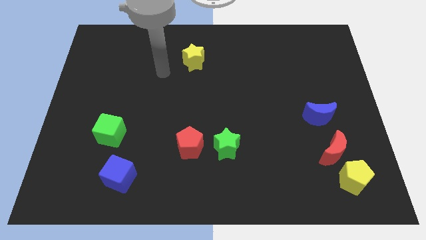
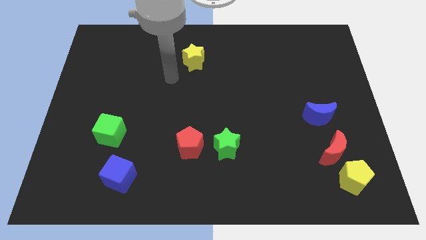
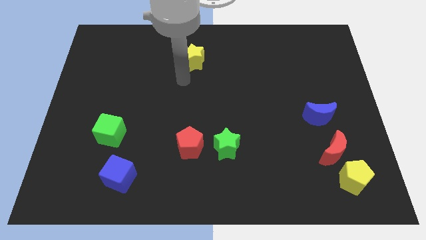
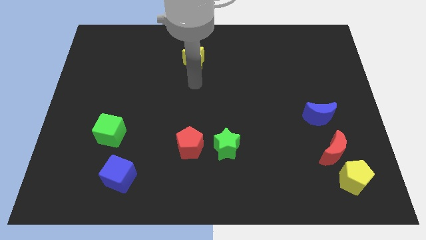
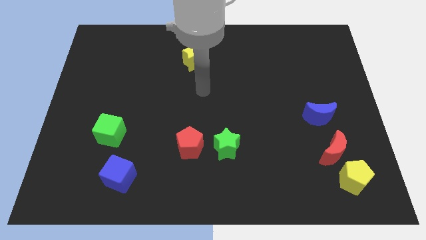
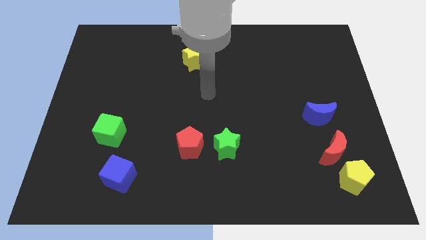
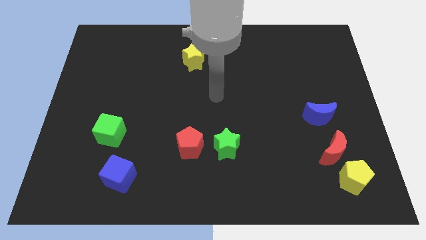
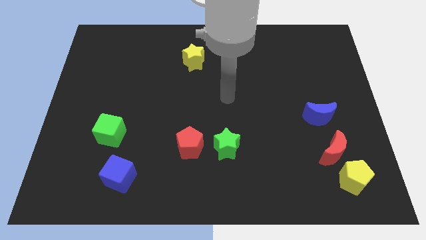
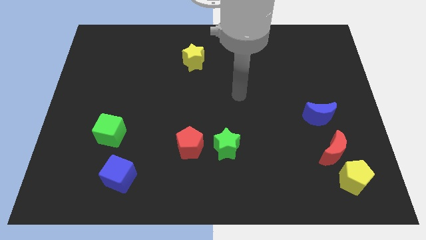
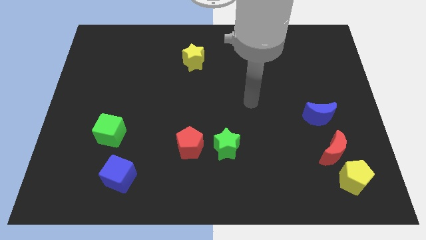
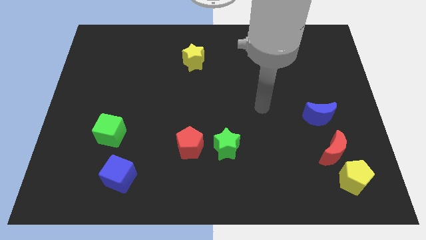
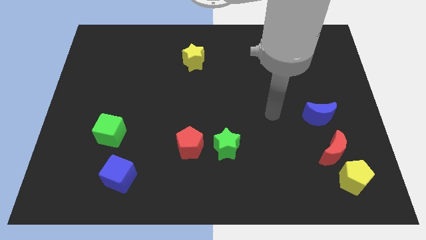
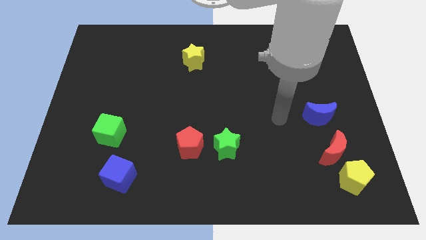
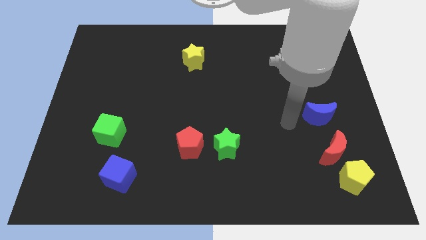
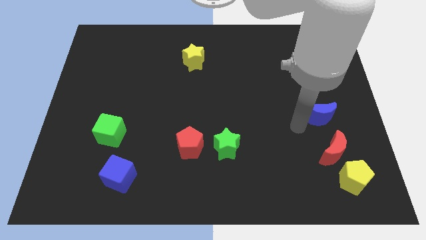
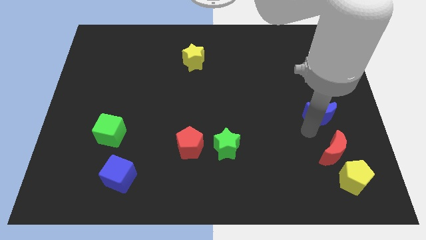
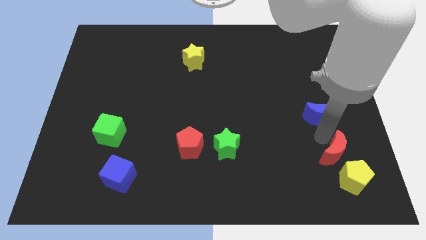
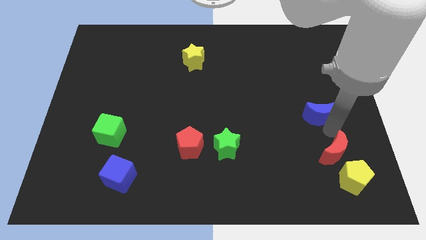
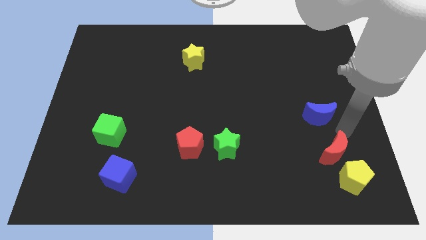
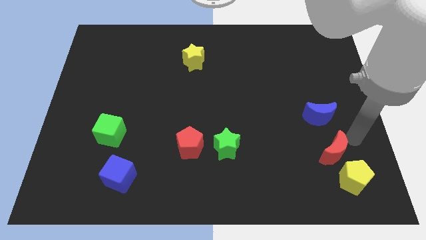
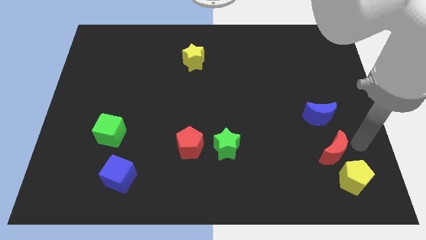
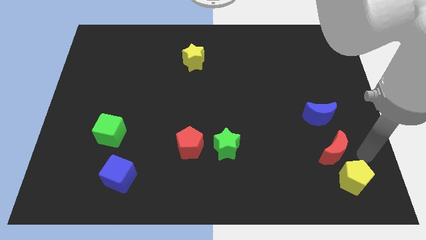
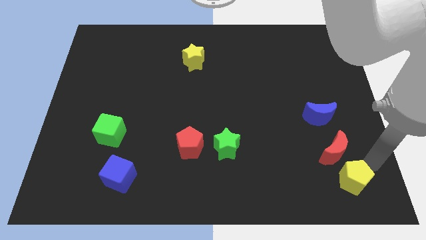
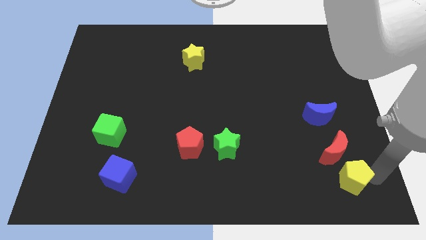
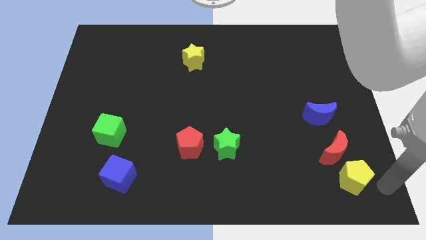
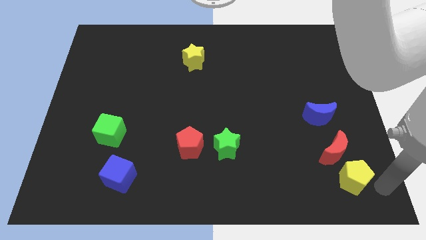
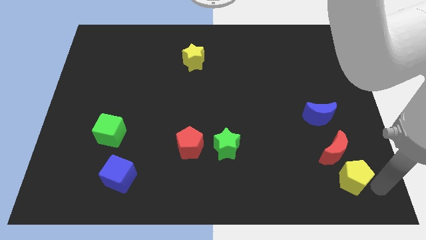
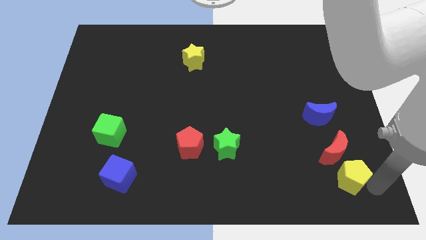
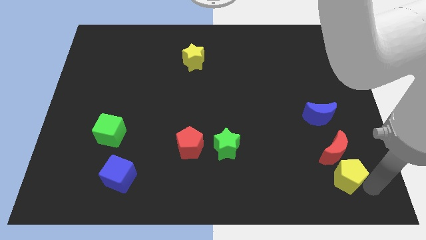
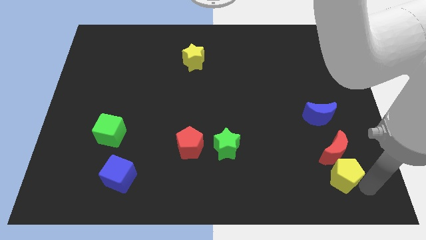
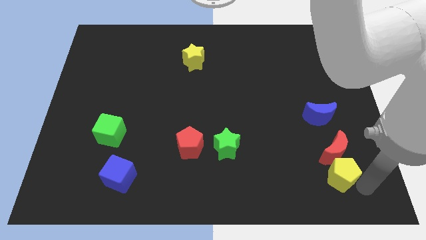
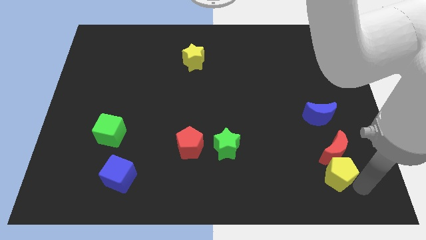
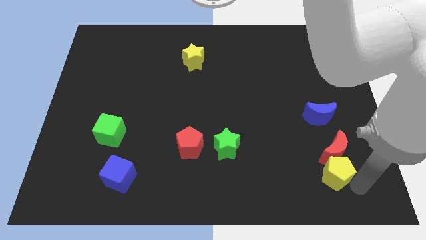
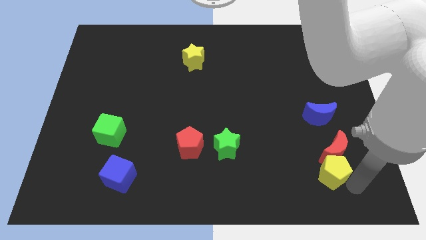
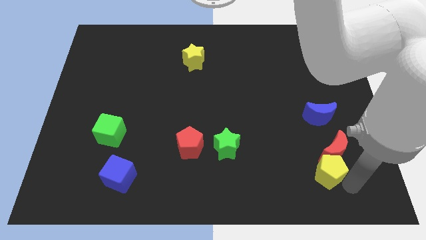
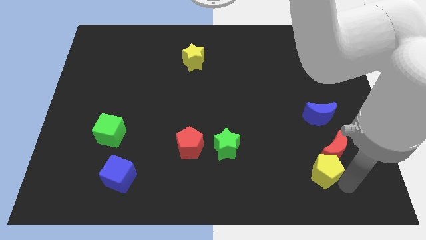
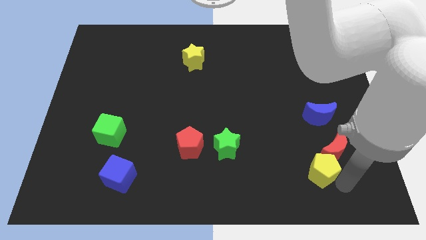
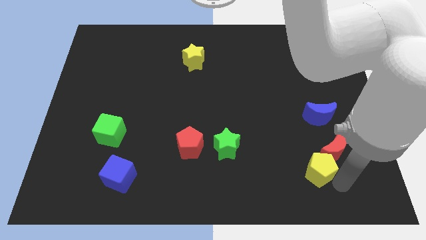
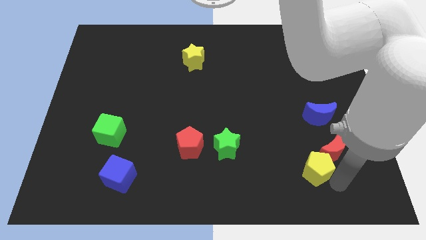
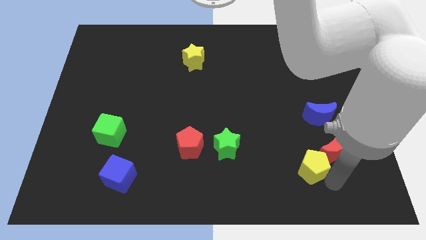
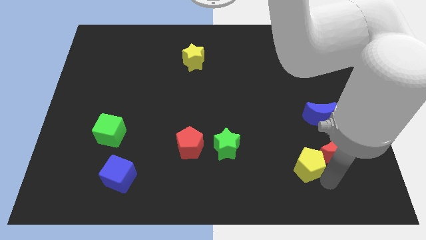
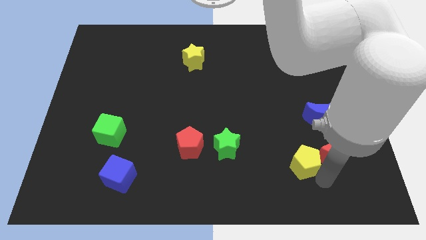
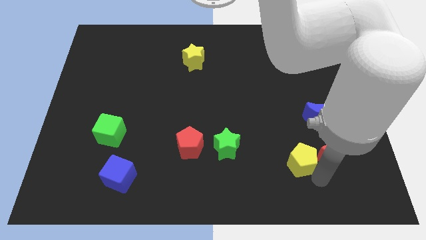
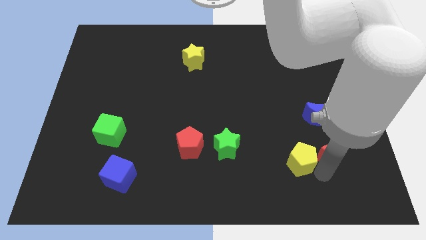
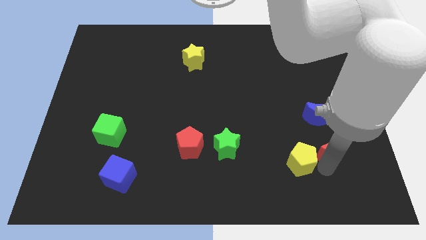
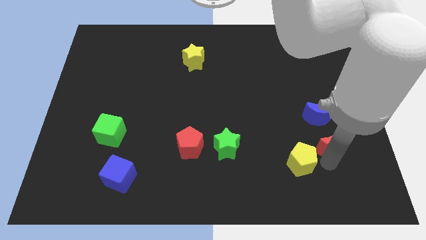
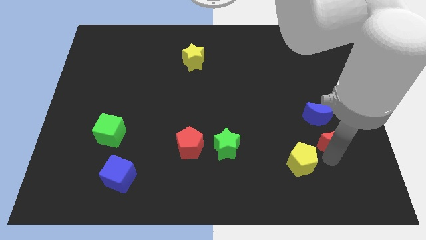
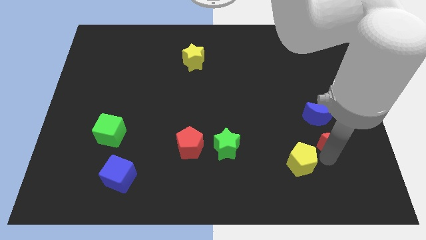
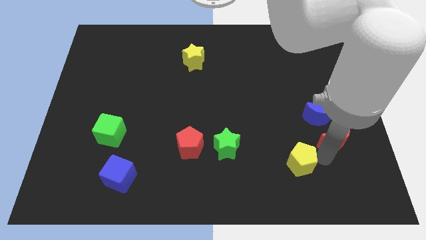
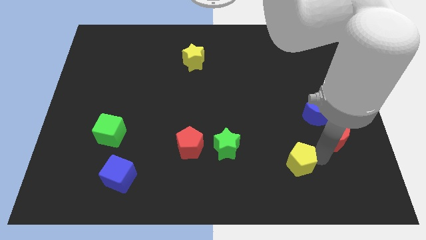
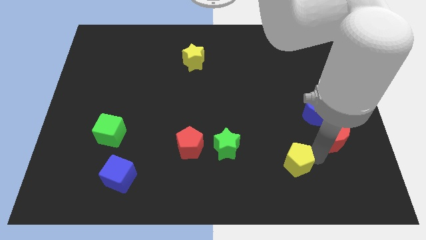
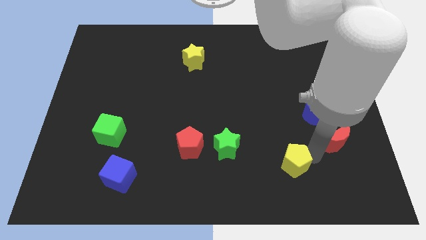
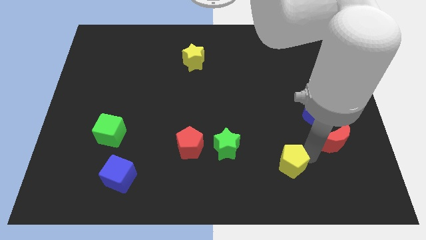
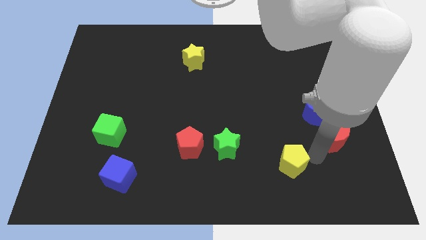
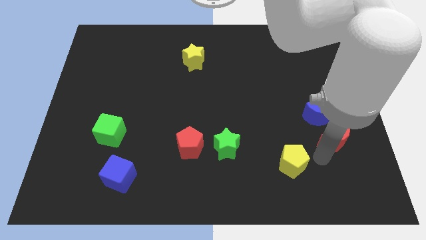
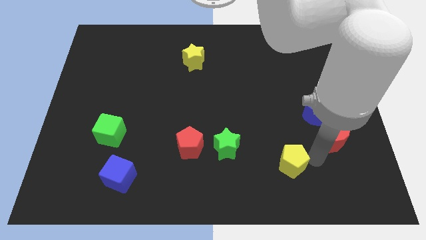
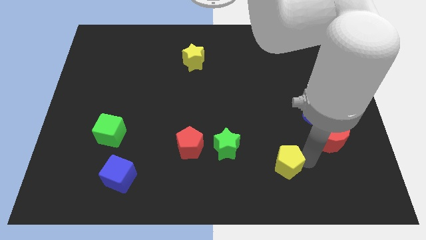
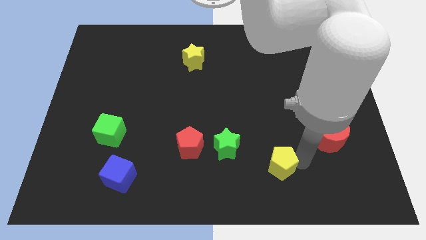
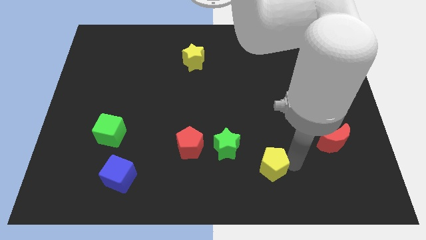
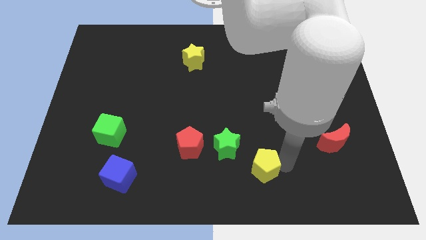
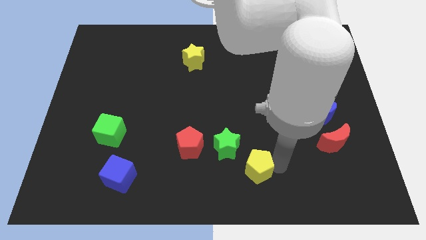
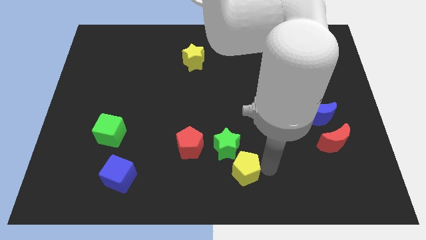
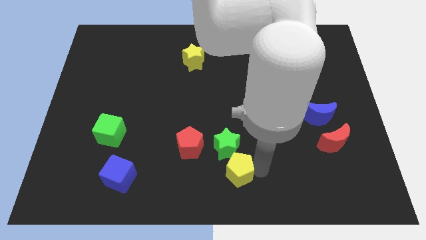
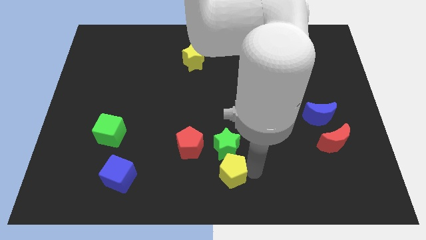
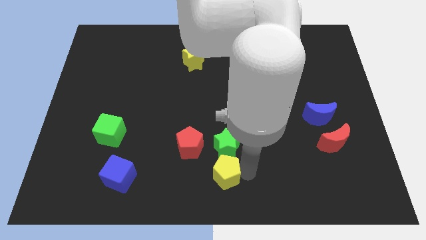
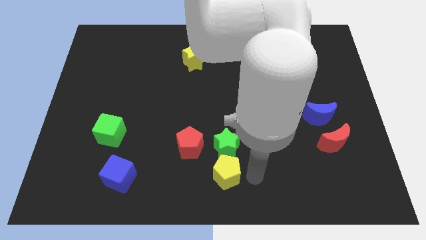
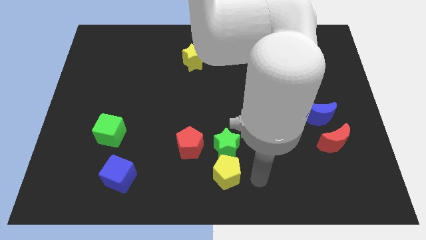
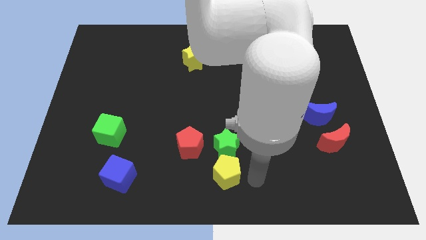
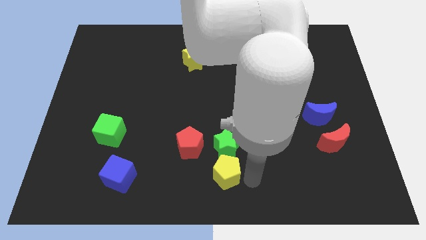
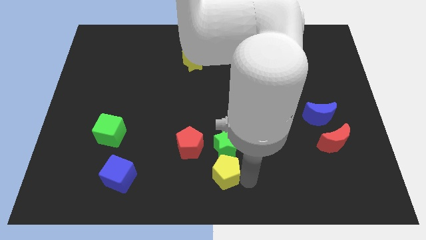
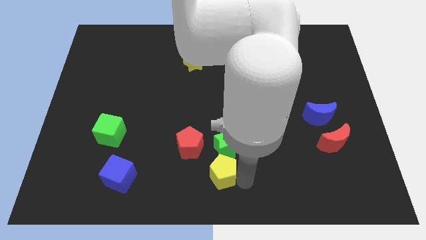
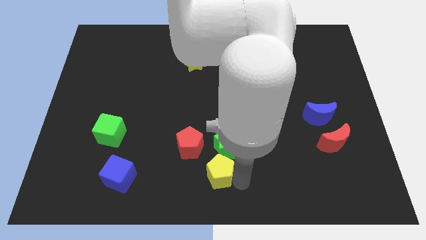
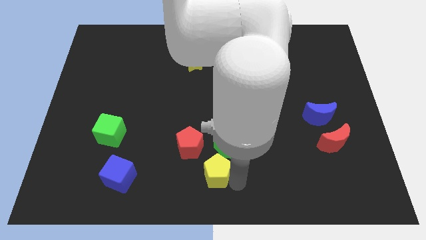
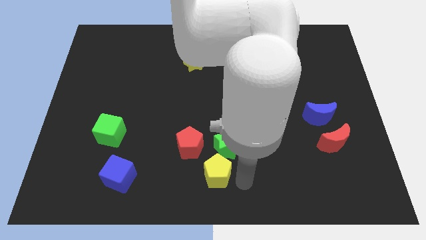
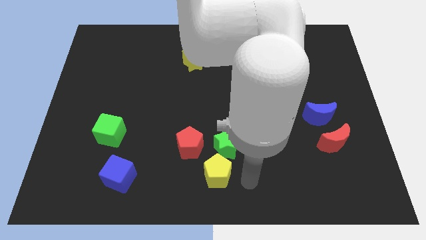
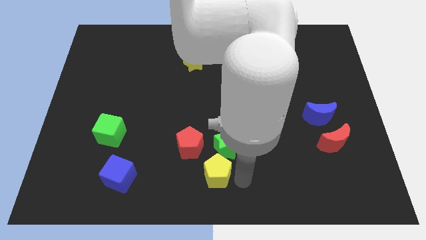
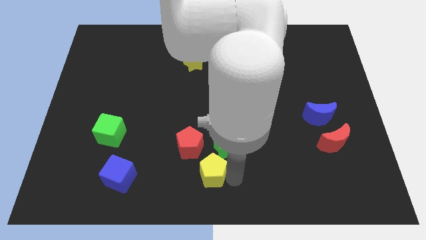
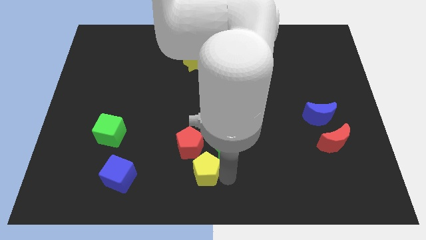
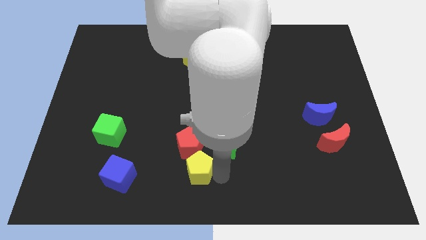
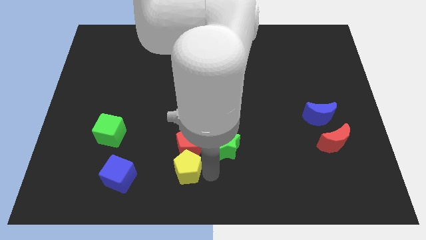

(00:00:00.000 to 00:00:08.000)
put the yellow pentagon diagonally down and to the left of the red pentagon
